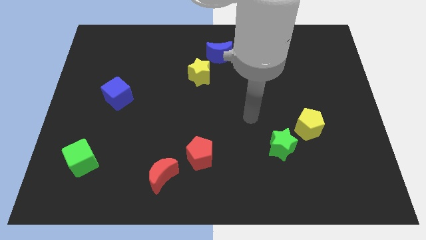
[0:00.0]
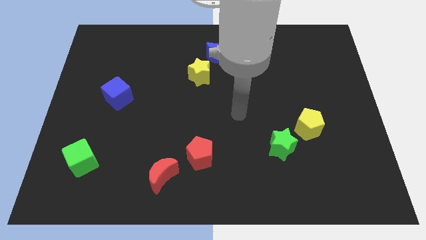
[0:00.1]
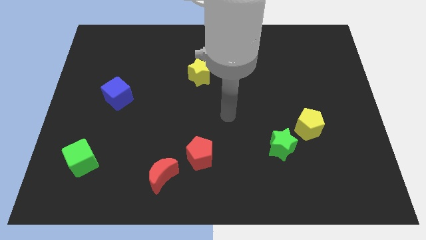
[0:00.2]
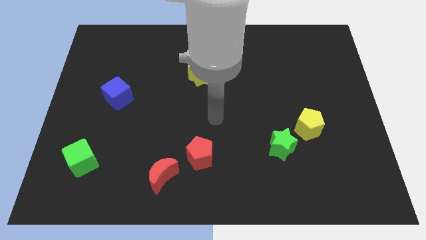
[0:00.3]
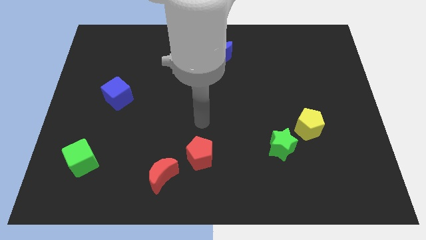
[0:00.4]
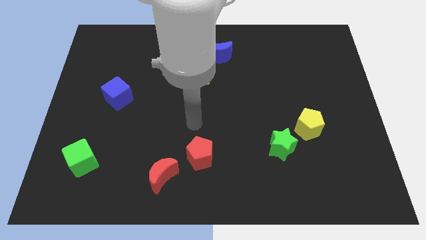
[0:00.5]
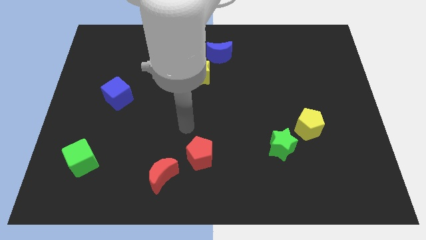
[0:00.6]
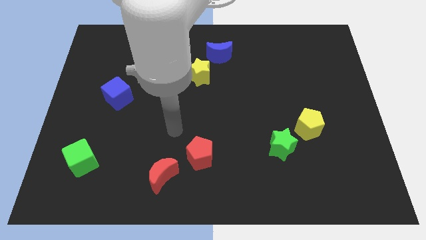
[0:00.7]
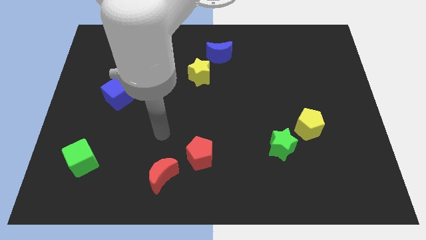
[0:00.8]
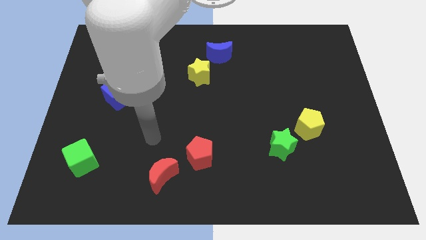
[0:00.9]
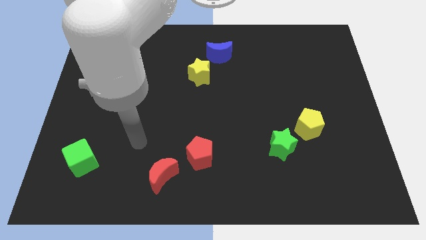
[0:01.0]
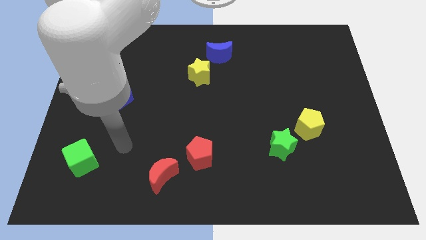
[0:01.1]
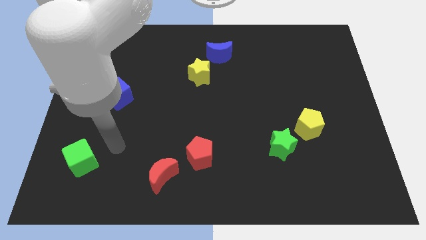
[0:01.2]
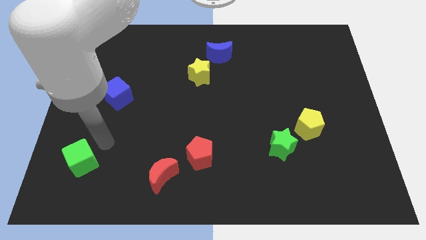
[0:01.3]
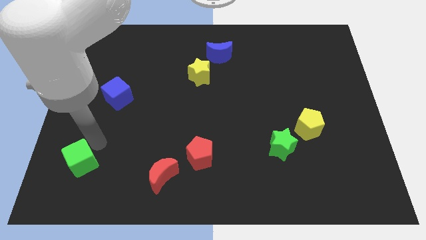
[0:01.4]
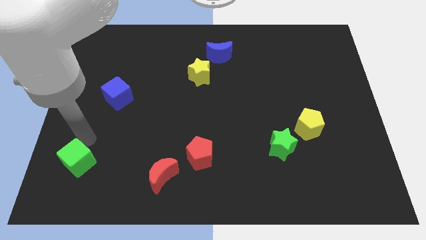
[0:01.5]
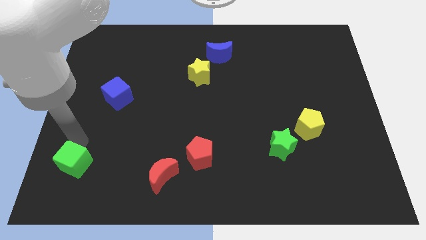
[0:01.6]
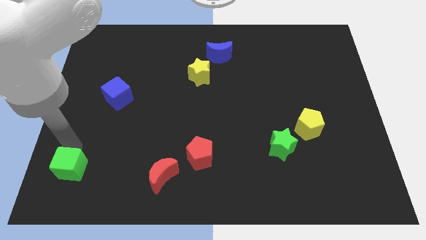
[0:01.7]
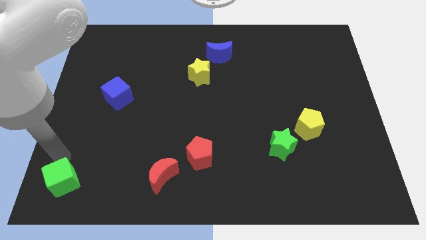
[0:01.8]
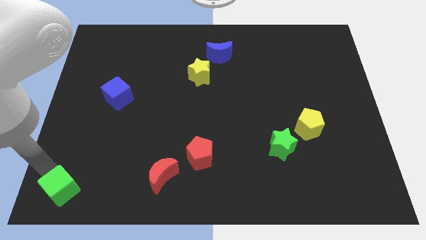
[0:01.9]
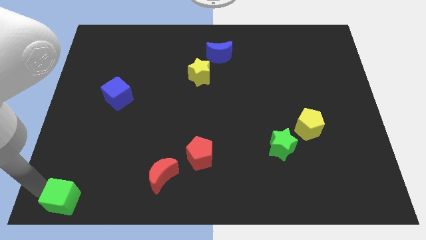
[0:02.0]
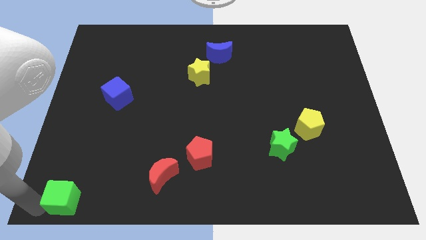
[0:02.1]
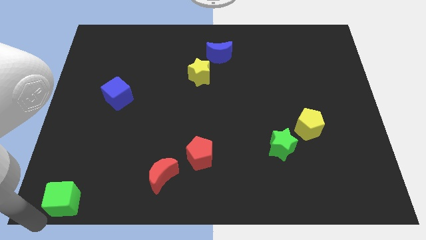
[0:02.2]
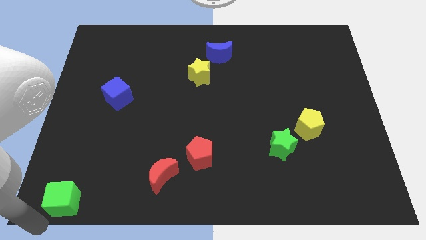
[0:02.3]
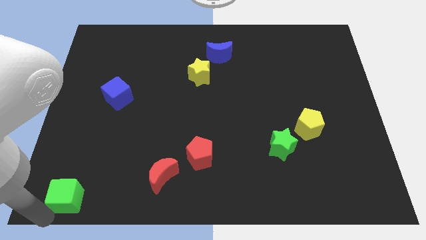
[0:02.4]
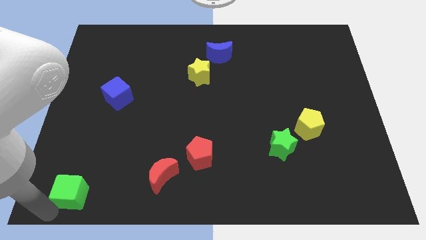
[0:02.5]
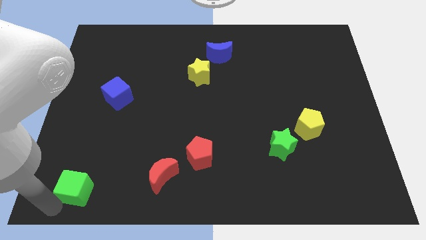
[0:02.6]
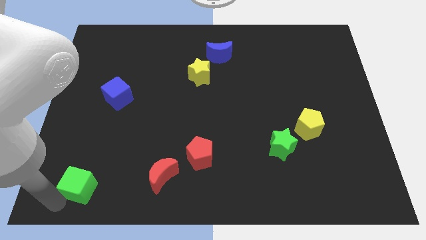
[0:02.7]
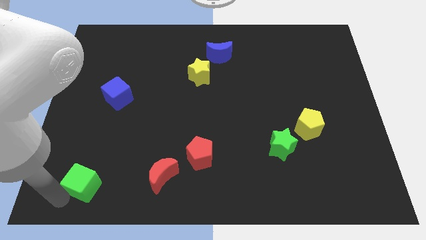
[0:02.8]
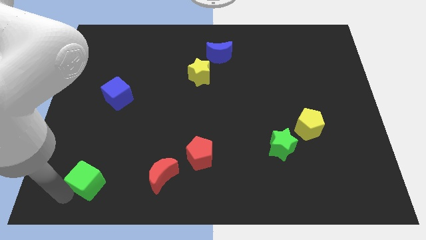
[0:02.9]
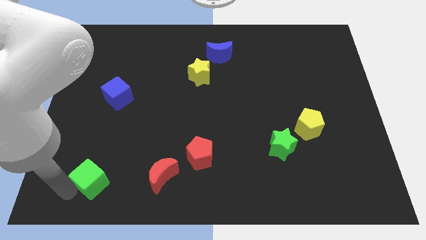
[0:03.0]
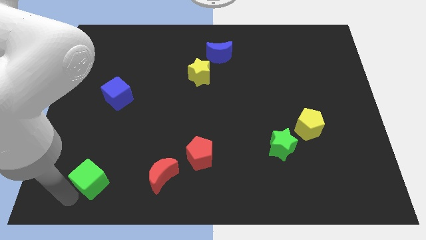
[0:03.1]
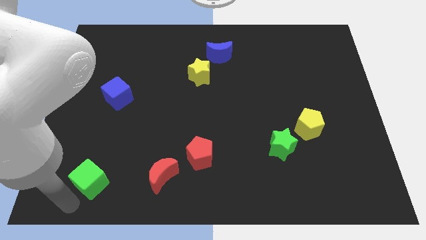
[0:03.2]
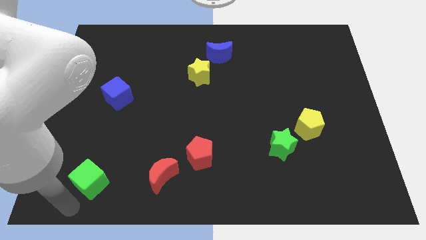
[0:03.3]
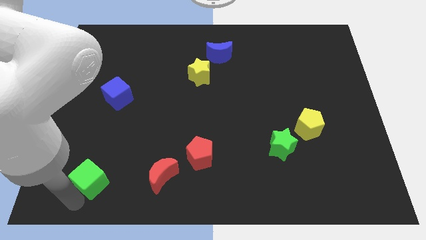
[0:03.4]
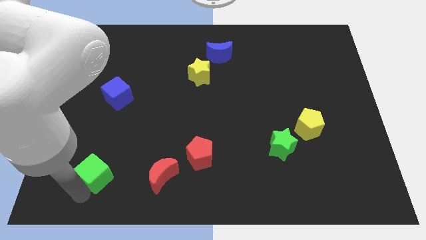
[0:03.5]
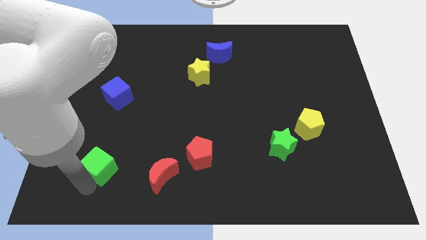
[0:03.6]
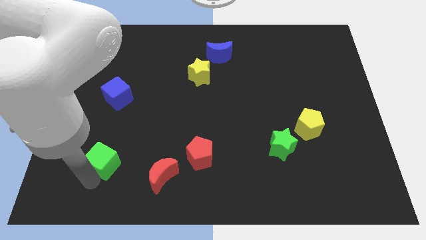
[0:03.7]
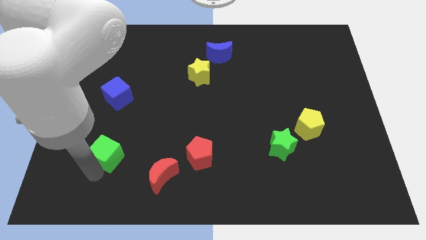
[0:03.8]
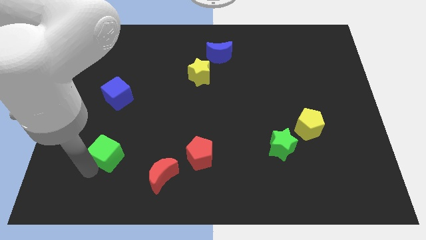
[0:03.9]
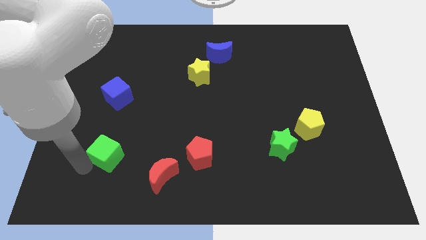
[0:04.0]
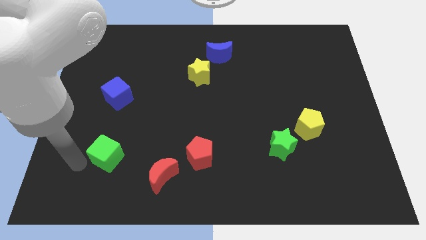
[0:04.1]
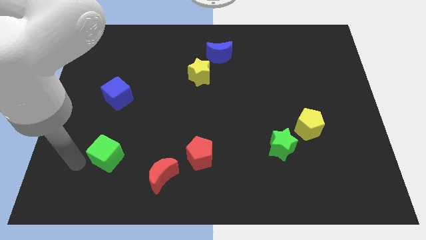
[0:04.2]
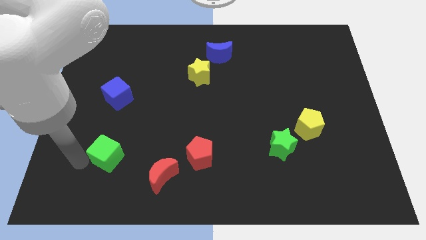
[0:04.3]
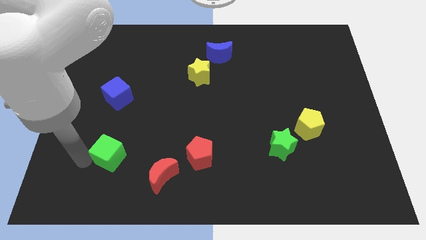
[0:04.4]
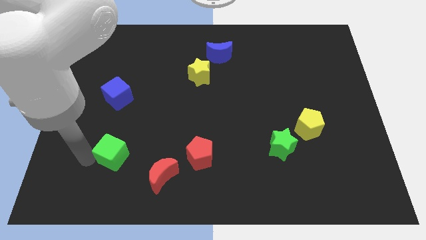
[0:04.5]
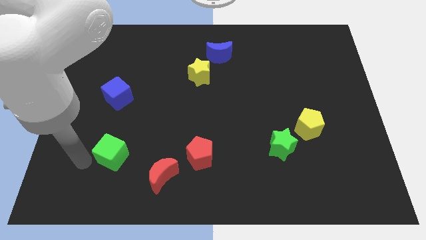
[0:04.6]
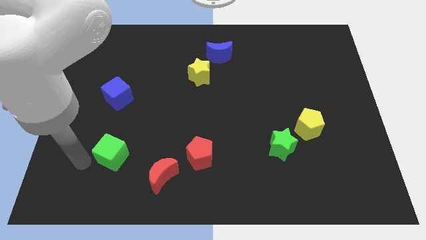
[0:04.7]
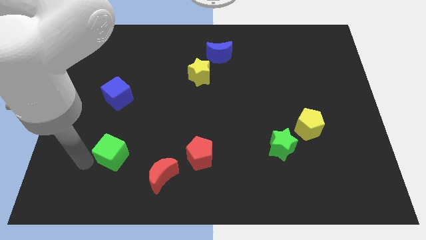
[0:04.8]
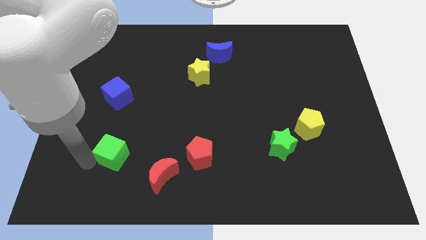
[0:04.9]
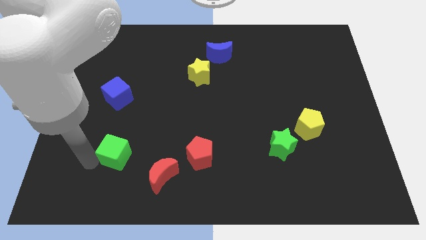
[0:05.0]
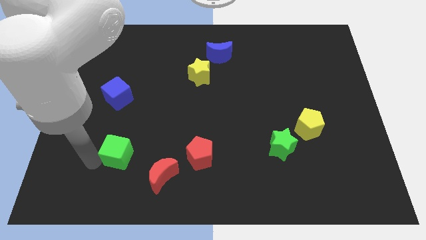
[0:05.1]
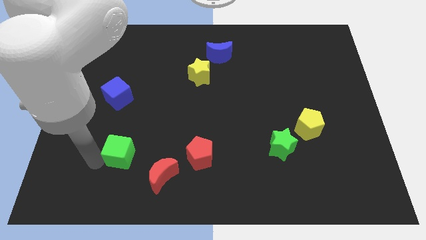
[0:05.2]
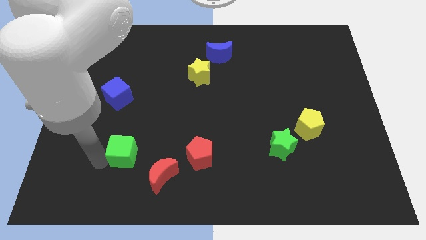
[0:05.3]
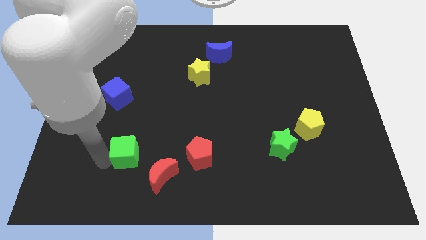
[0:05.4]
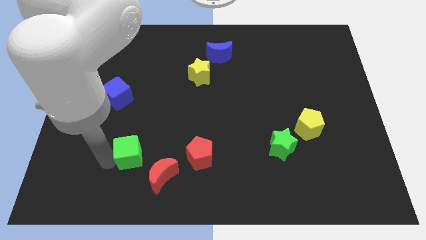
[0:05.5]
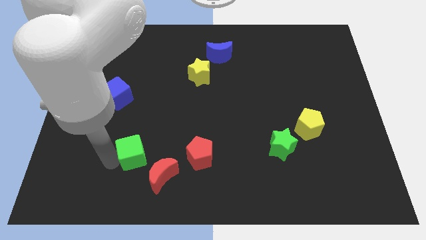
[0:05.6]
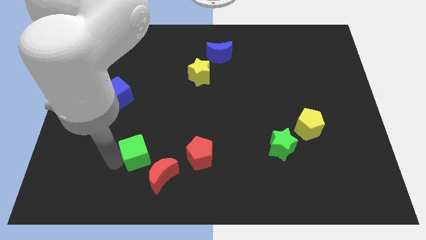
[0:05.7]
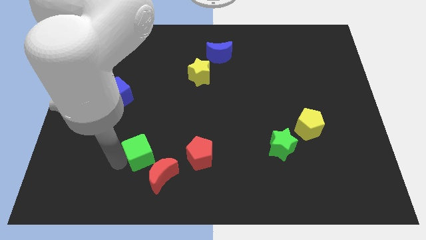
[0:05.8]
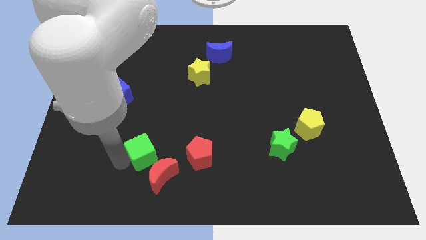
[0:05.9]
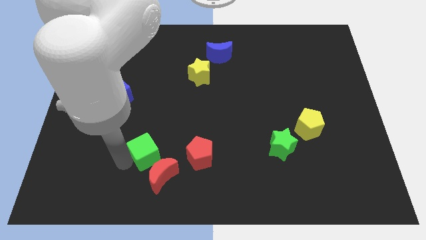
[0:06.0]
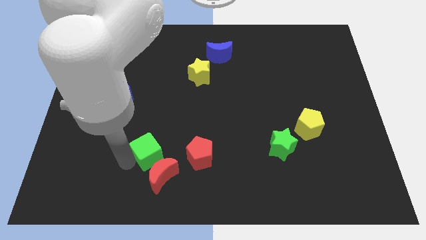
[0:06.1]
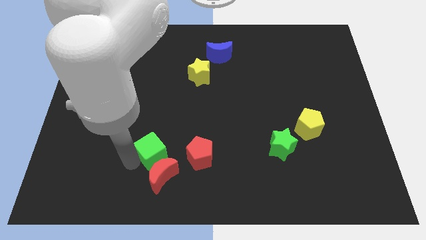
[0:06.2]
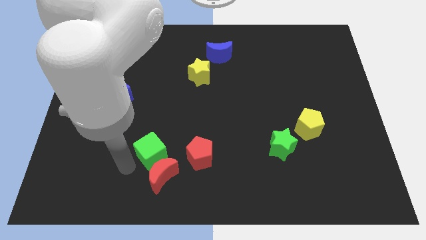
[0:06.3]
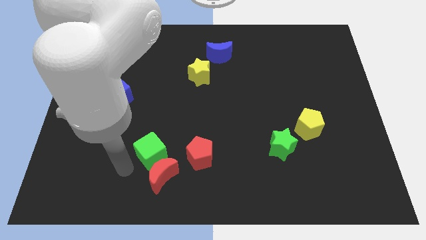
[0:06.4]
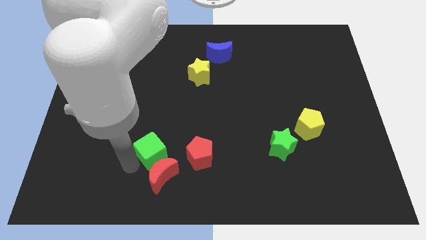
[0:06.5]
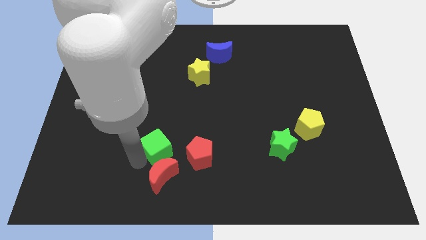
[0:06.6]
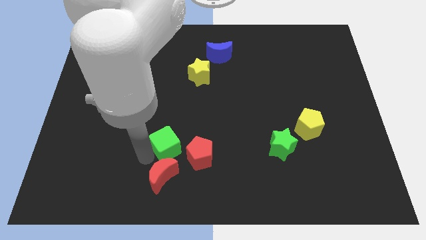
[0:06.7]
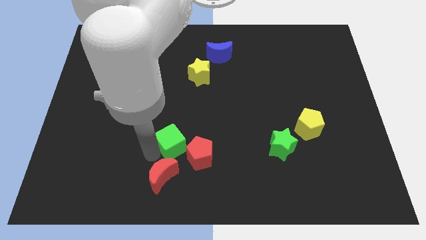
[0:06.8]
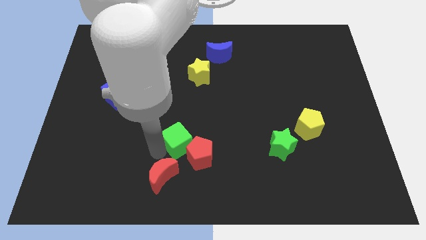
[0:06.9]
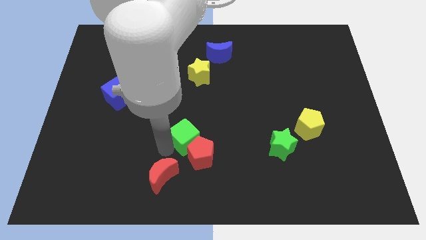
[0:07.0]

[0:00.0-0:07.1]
slide the green cube to the right

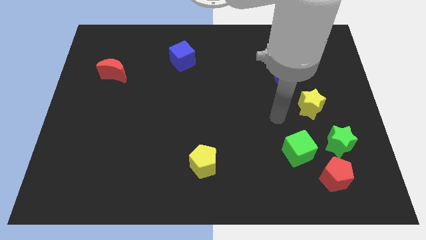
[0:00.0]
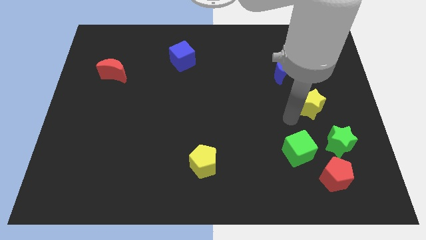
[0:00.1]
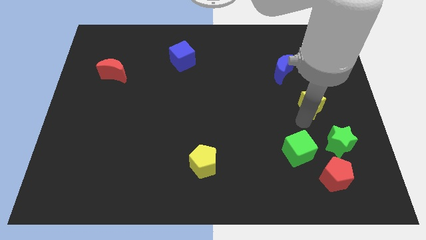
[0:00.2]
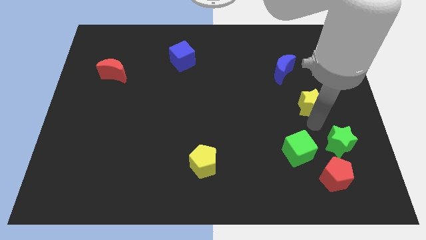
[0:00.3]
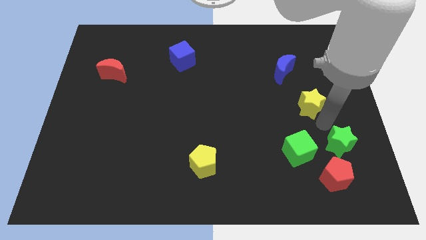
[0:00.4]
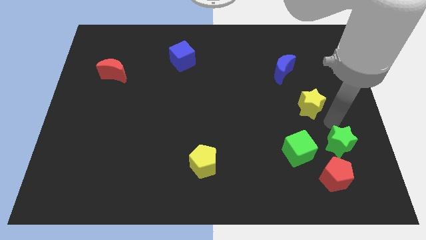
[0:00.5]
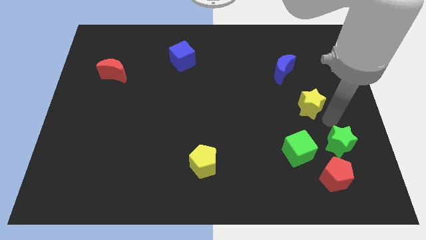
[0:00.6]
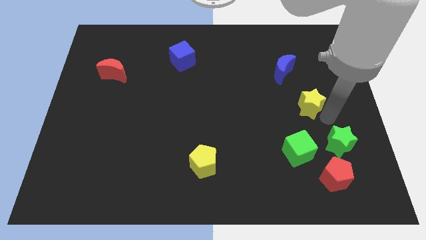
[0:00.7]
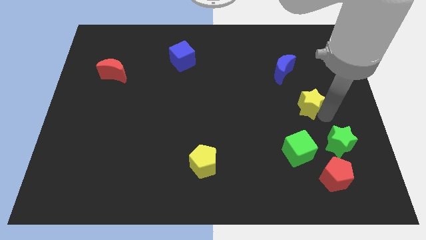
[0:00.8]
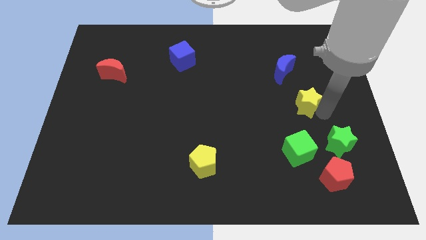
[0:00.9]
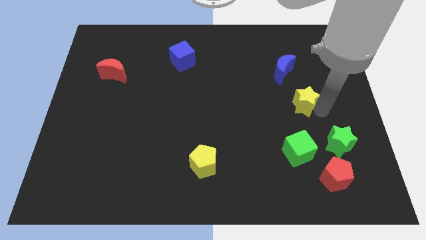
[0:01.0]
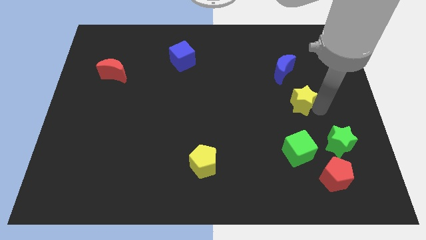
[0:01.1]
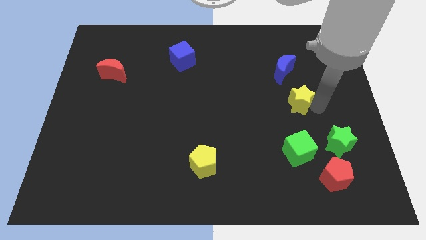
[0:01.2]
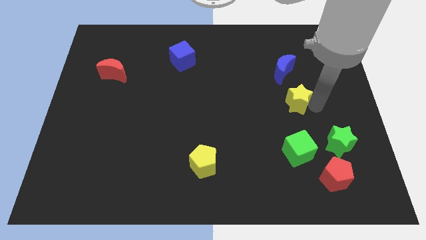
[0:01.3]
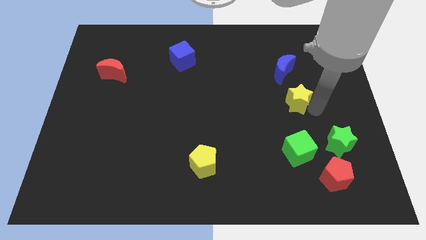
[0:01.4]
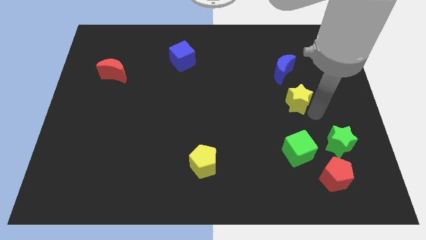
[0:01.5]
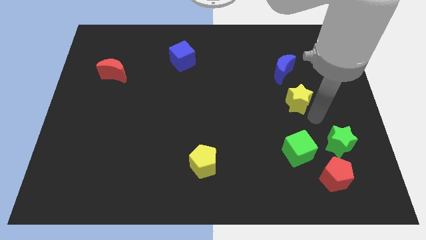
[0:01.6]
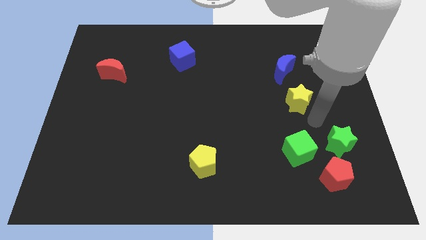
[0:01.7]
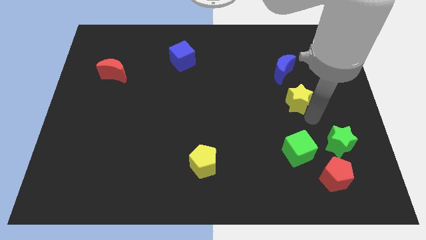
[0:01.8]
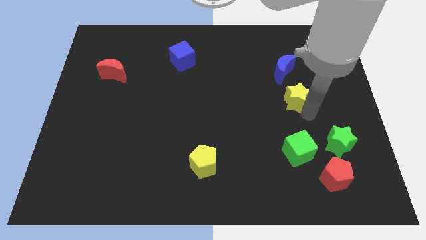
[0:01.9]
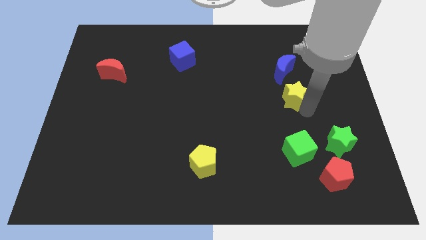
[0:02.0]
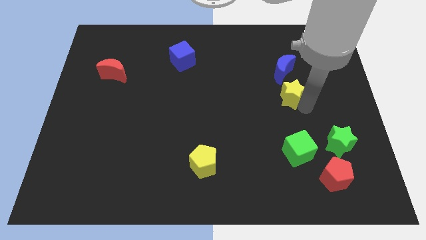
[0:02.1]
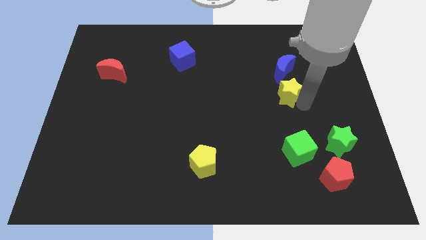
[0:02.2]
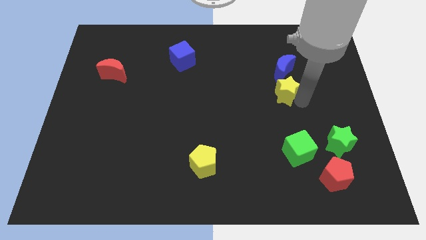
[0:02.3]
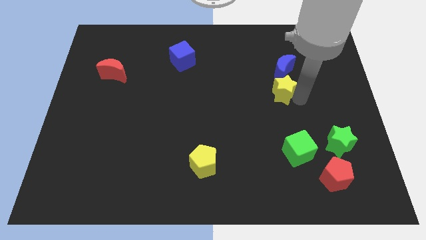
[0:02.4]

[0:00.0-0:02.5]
slide the yellow star diagonally up and left a little bit
